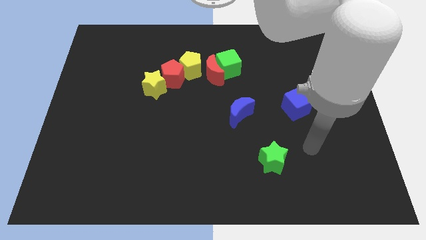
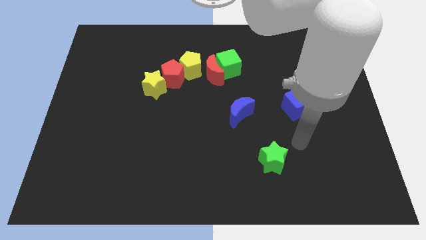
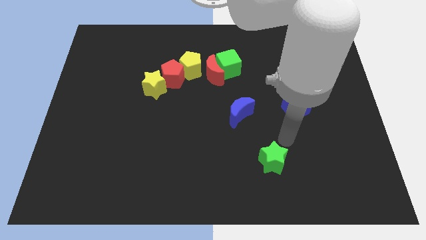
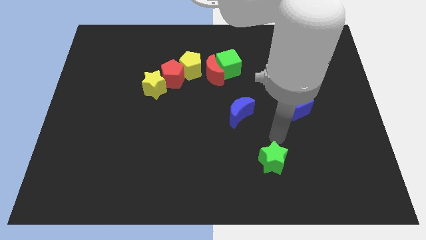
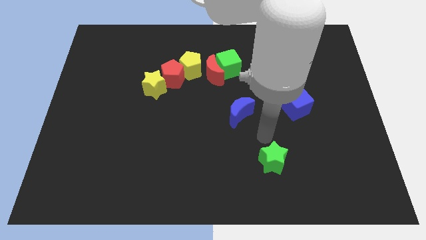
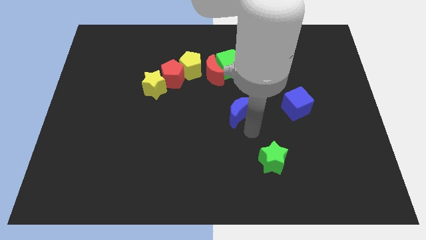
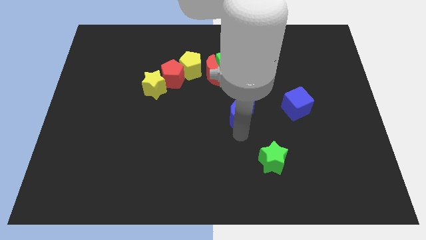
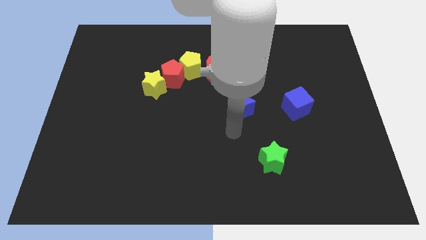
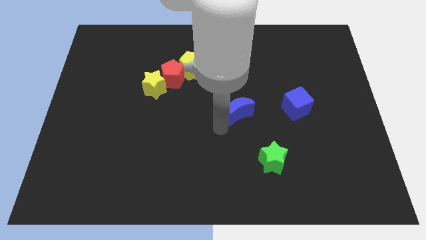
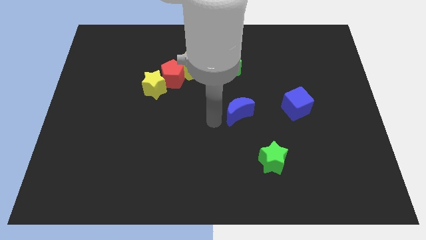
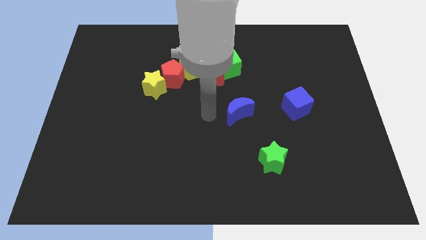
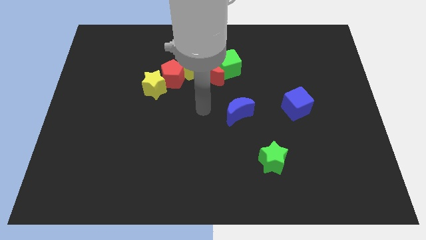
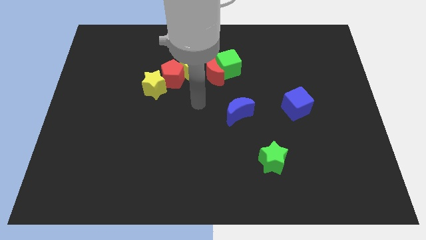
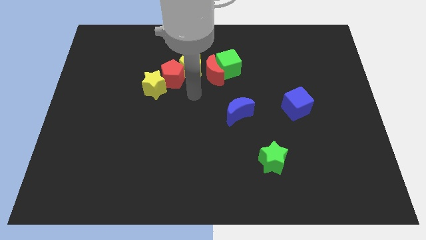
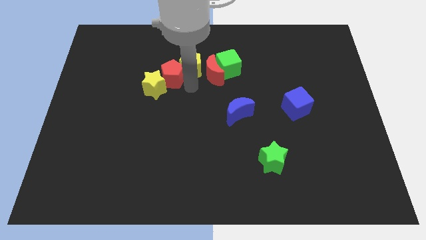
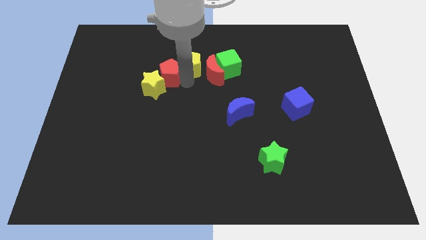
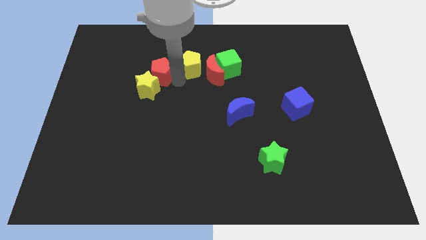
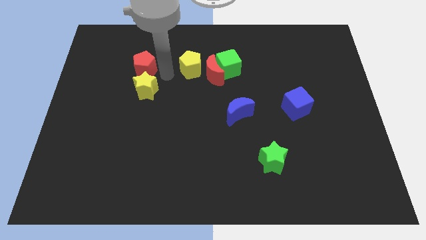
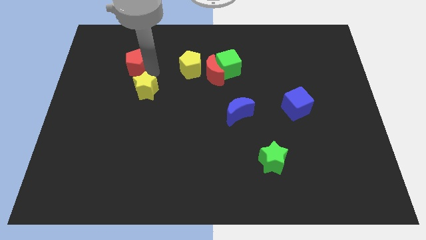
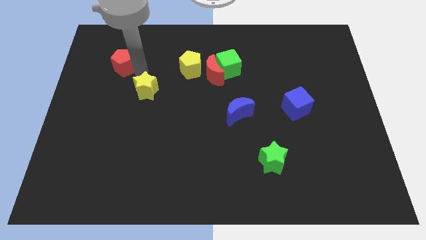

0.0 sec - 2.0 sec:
separate the yellow star from the red pentagon

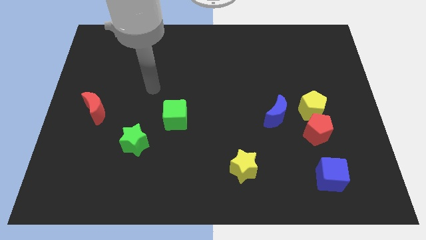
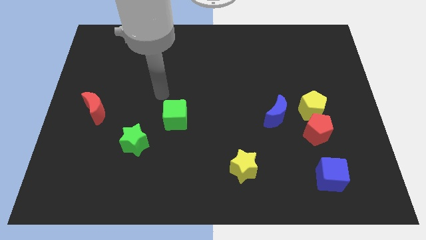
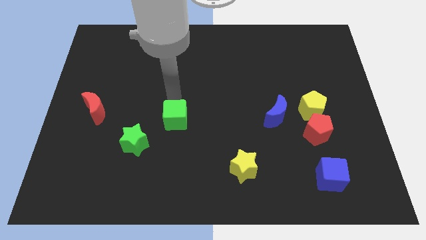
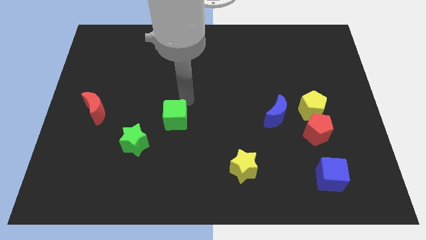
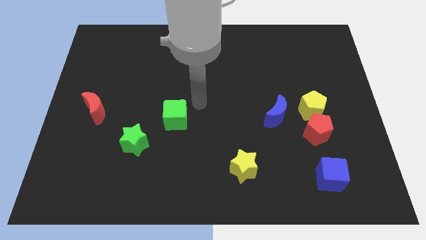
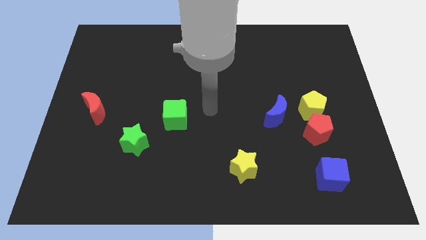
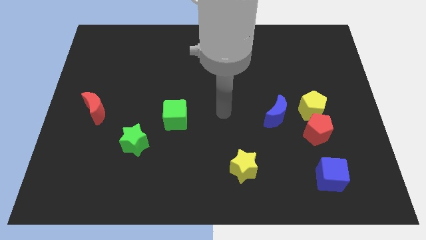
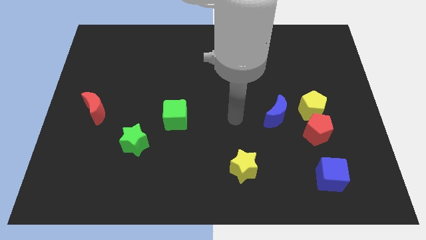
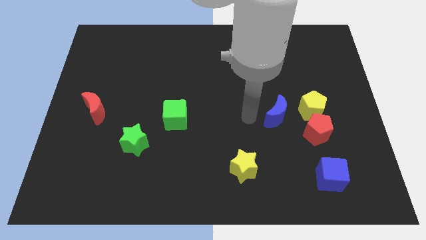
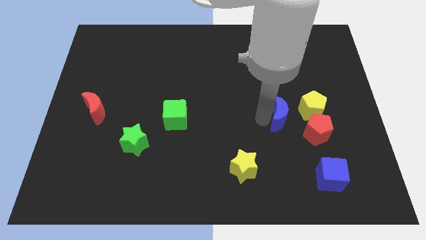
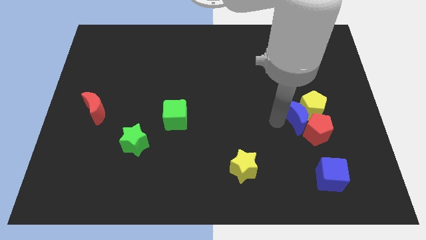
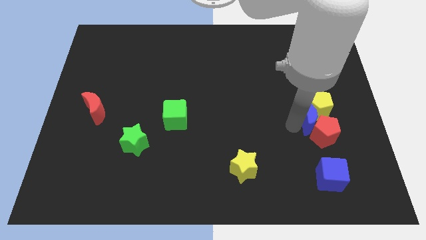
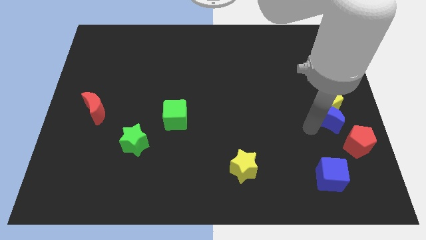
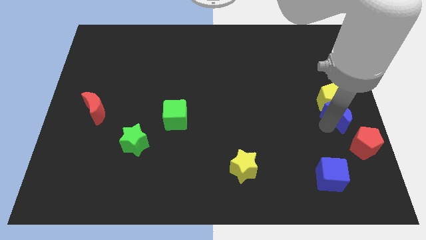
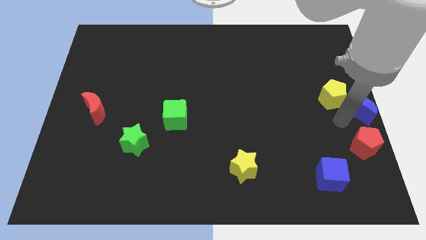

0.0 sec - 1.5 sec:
separate the yellow pentagon from the red pentagon and blue moon

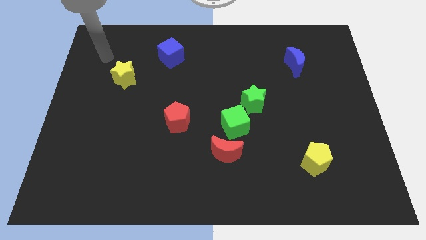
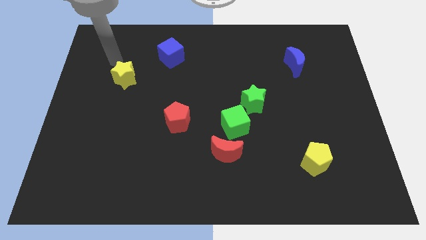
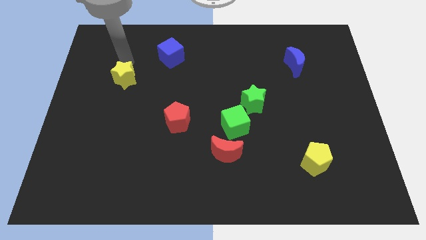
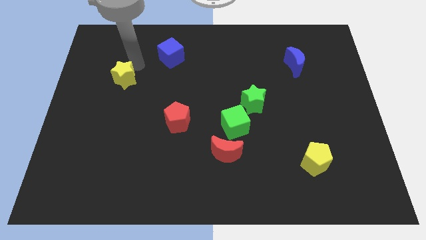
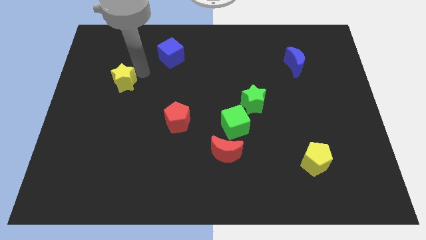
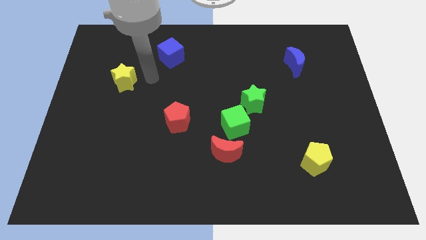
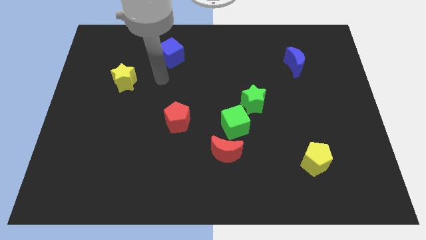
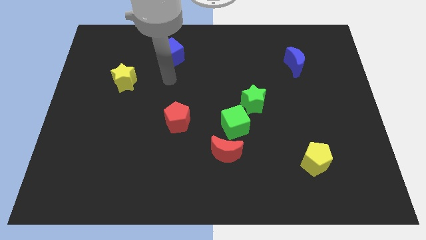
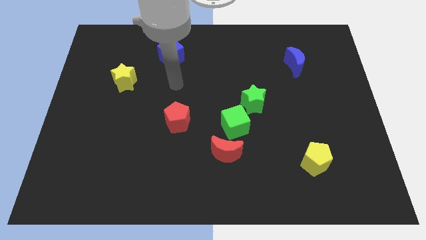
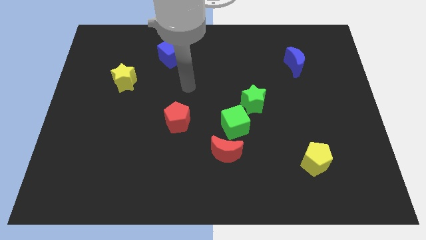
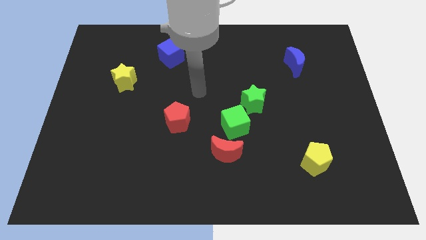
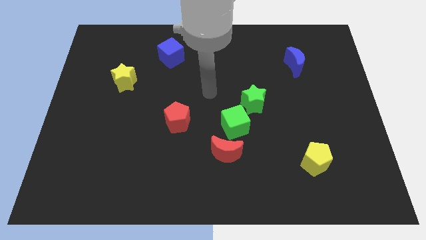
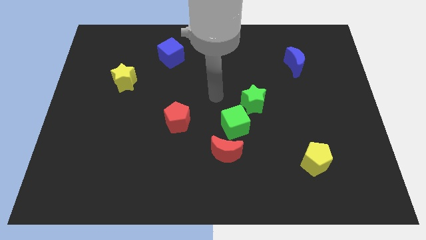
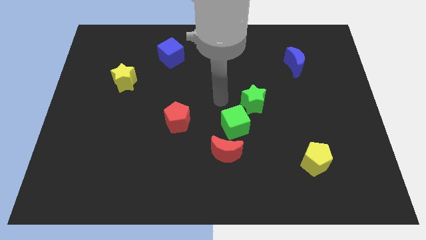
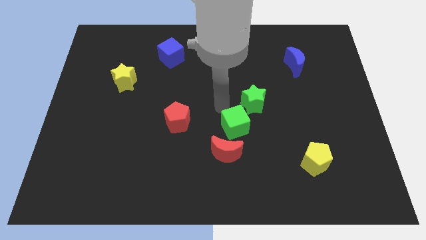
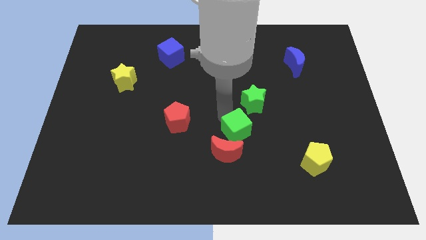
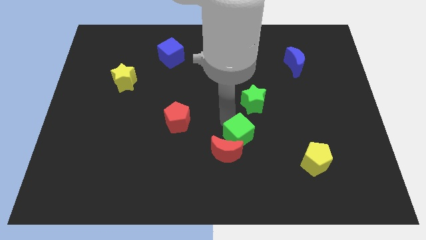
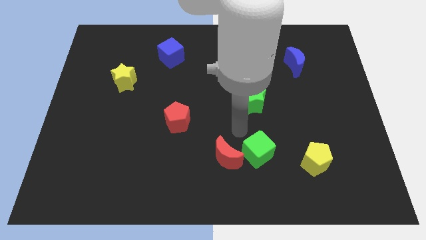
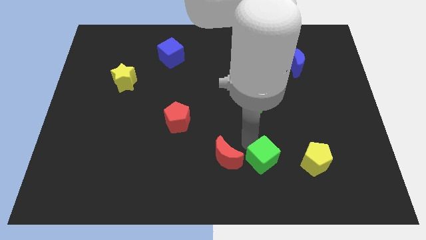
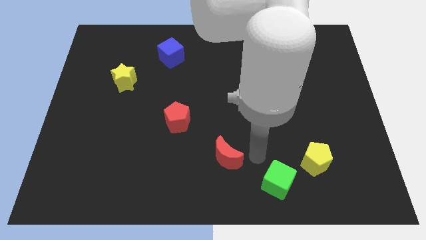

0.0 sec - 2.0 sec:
move the red moon away from the green cube

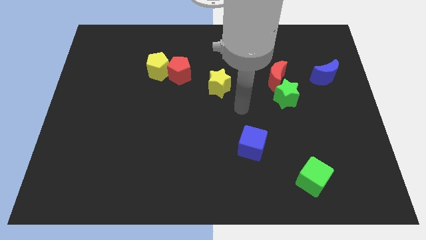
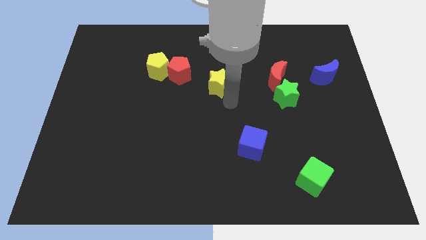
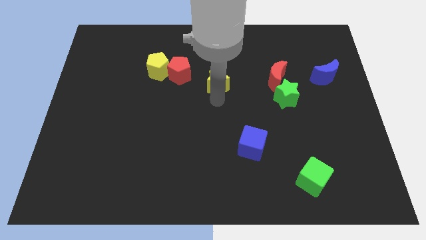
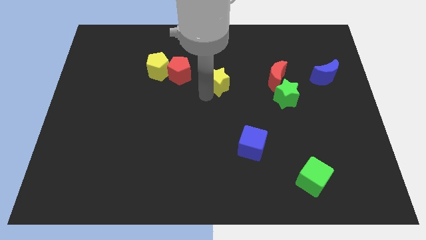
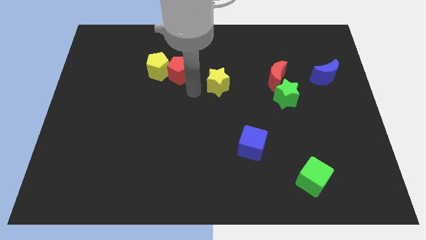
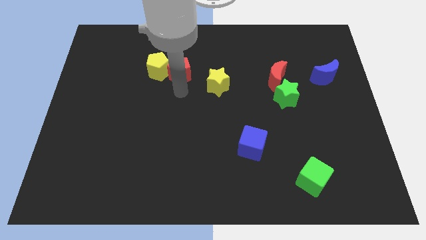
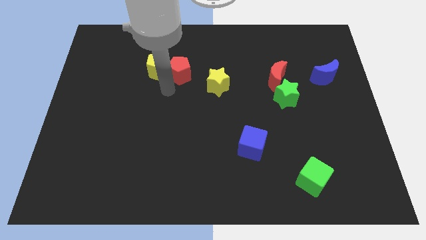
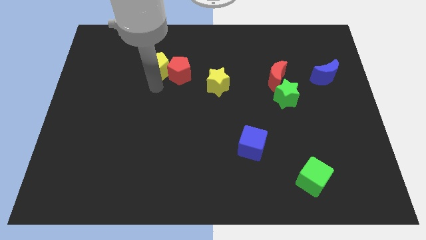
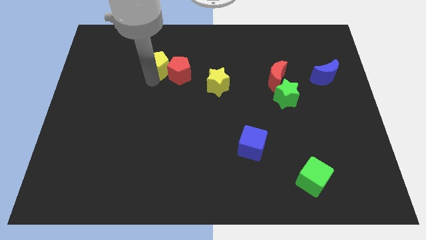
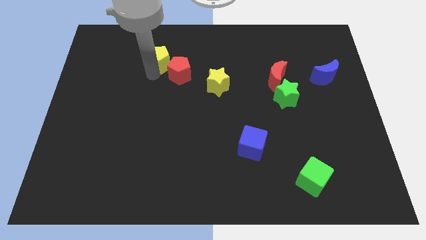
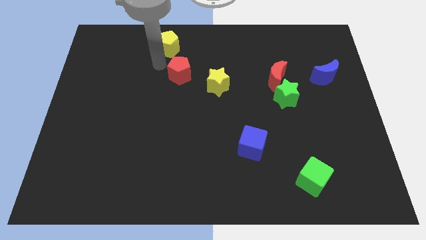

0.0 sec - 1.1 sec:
move the red pentagon away from the yellow pentagon

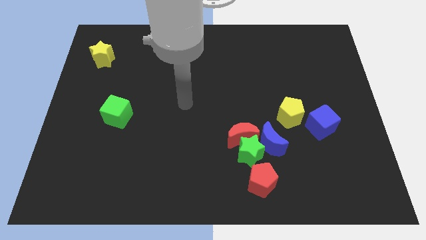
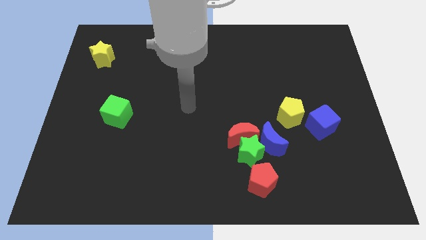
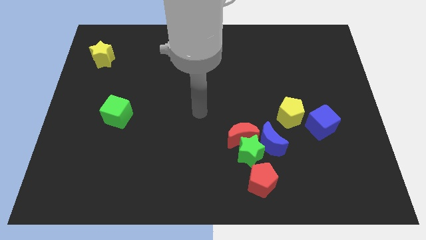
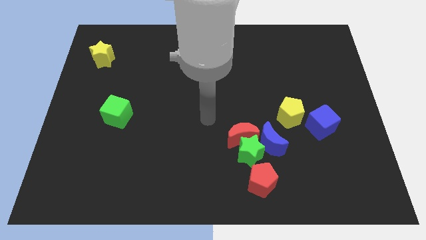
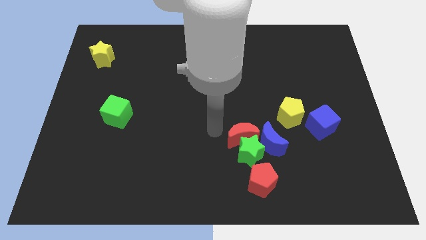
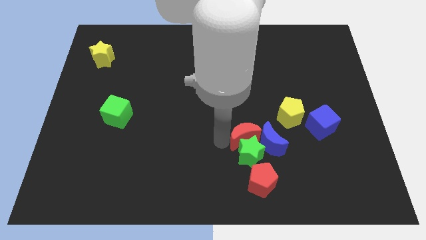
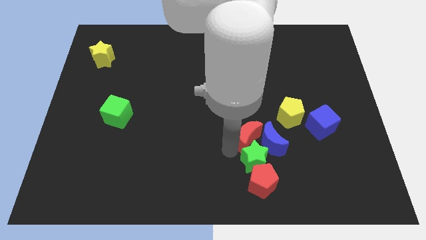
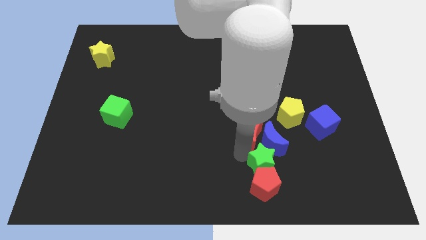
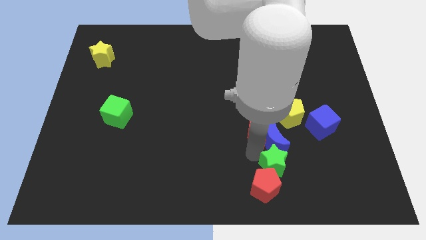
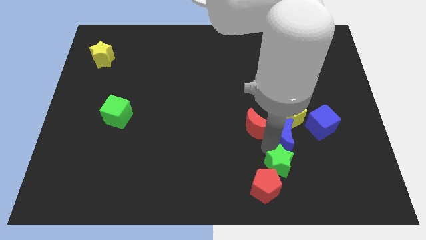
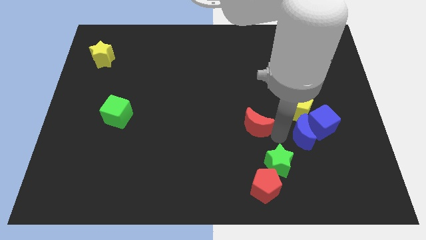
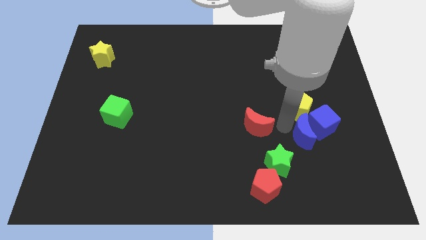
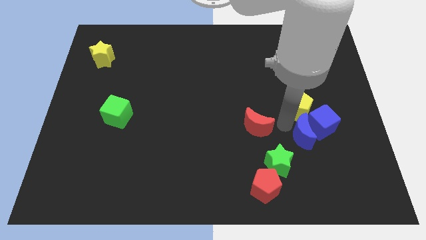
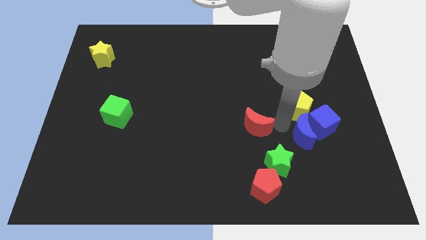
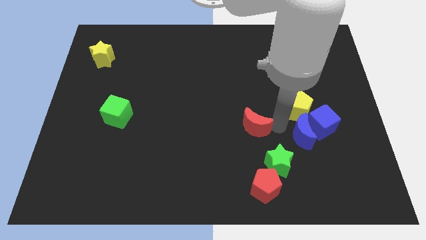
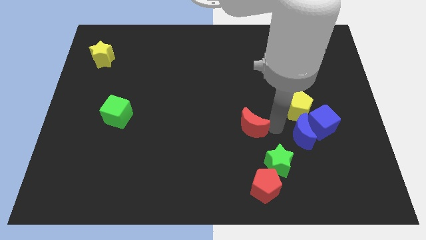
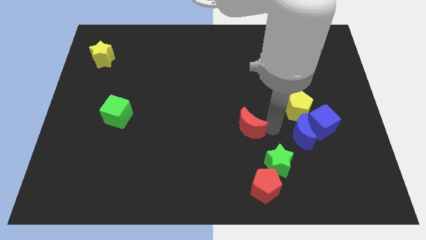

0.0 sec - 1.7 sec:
move the red moon away from the green star and blue moon

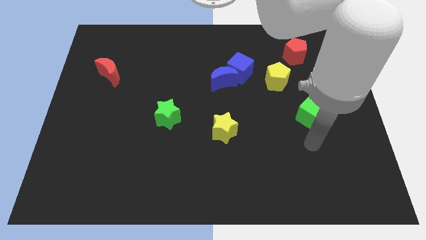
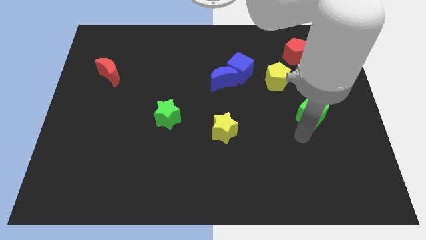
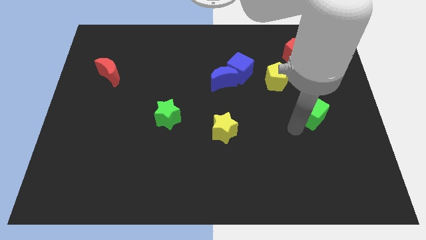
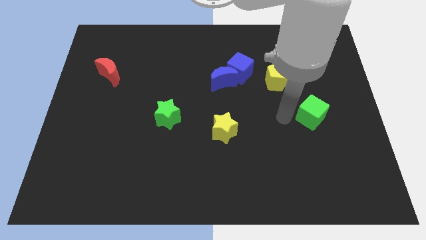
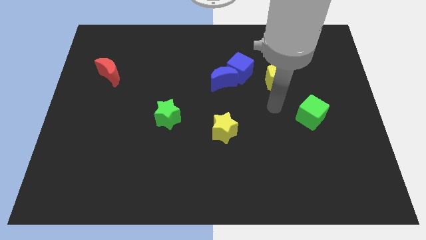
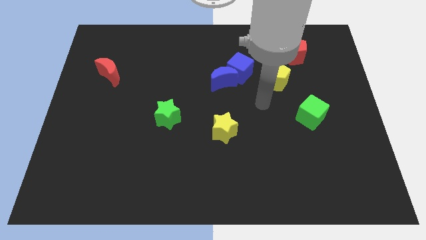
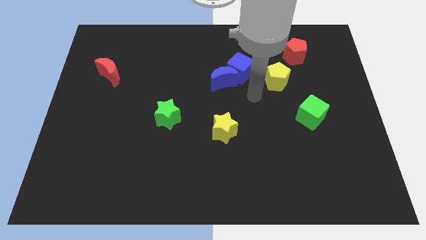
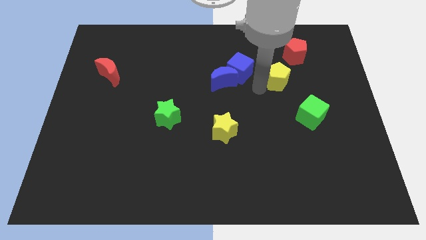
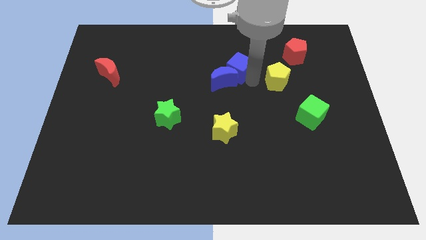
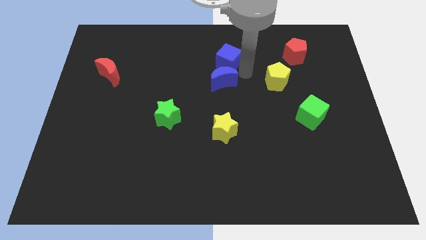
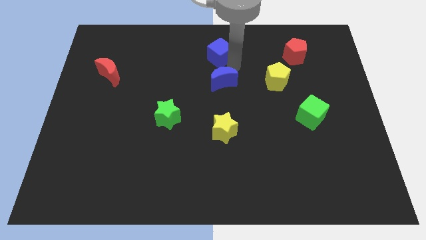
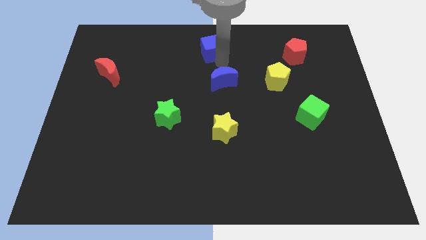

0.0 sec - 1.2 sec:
separate the blue moon from the blue cube
